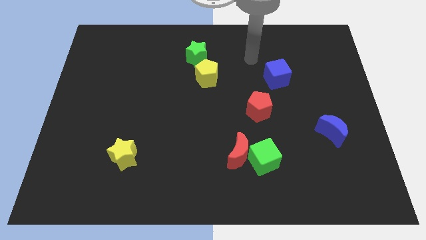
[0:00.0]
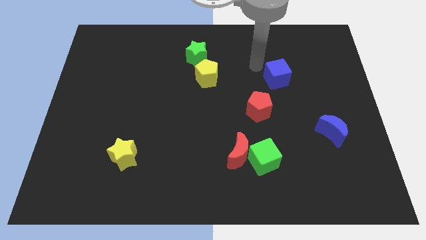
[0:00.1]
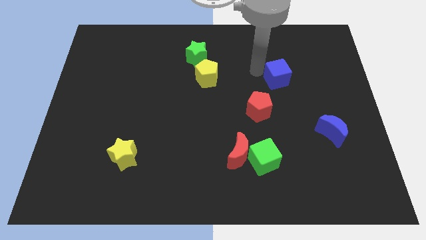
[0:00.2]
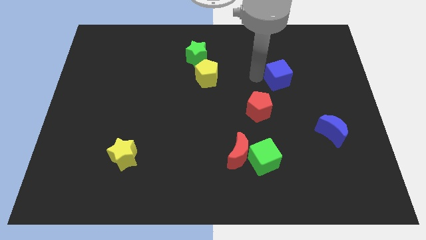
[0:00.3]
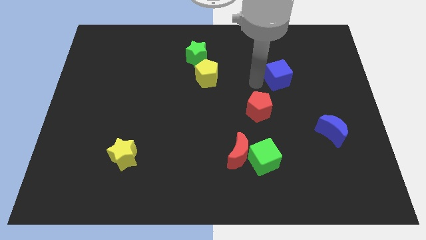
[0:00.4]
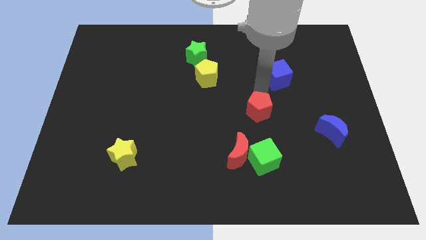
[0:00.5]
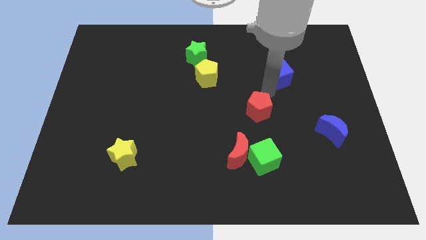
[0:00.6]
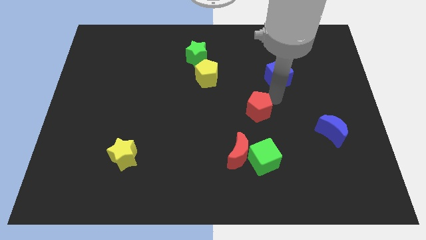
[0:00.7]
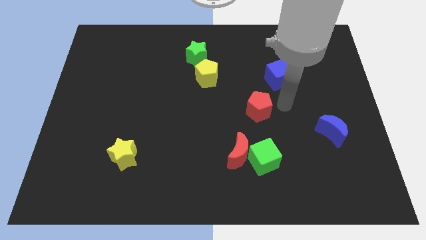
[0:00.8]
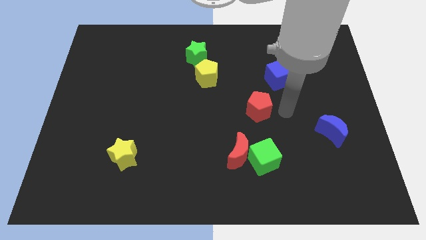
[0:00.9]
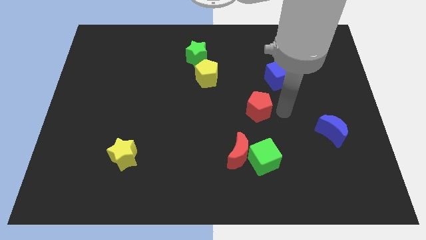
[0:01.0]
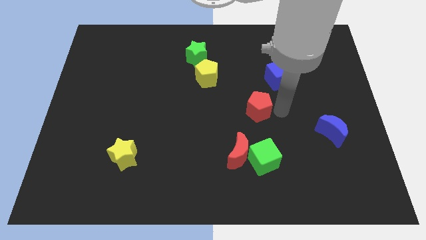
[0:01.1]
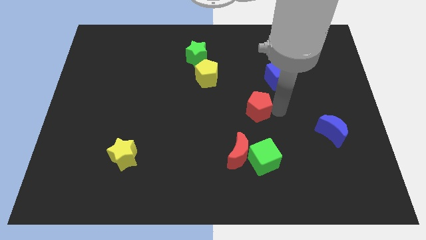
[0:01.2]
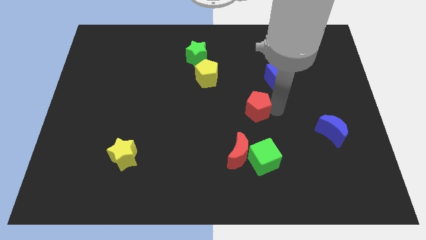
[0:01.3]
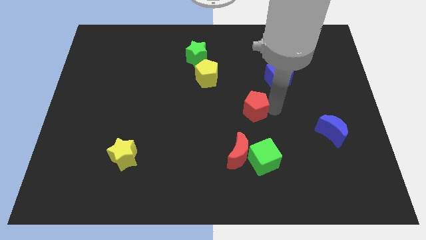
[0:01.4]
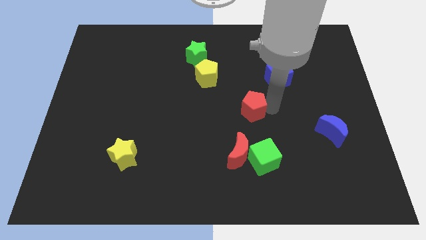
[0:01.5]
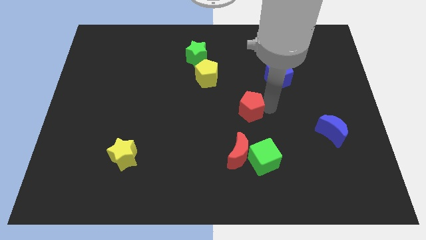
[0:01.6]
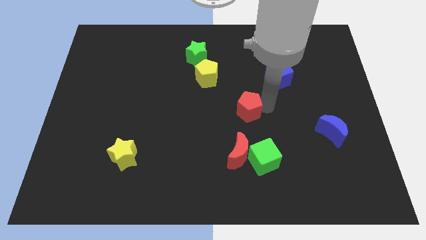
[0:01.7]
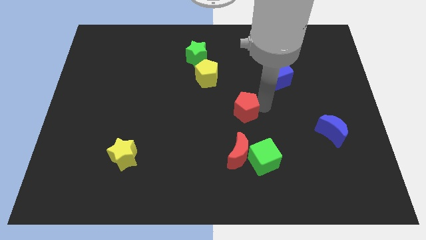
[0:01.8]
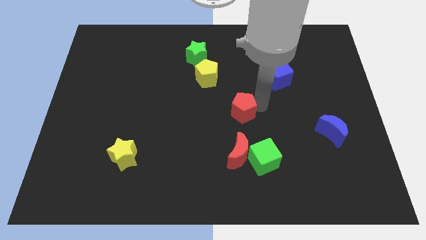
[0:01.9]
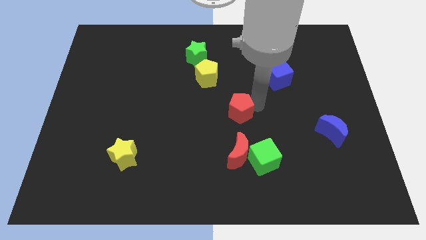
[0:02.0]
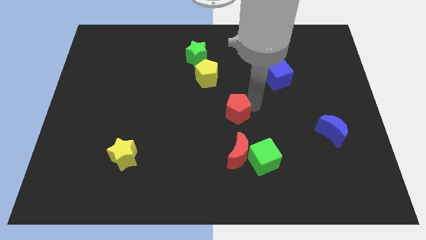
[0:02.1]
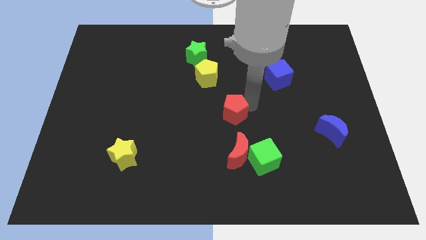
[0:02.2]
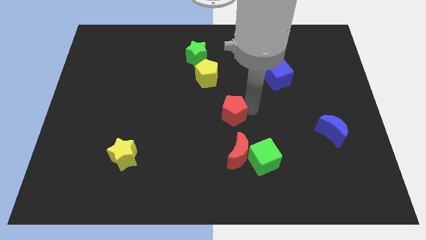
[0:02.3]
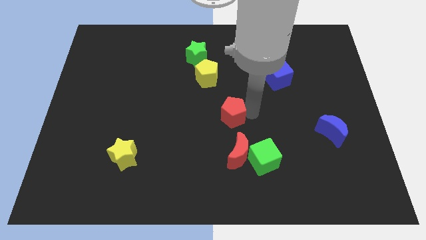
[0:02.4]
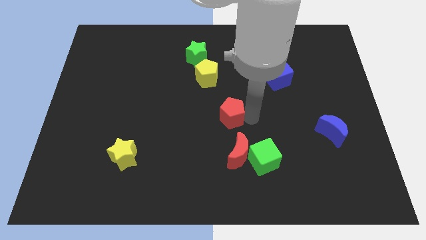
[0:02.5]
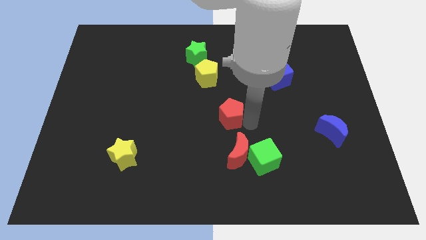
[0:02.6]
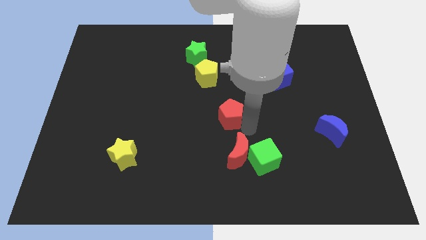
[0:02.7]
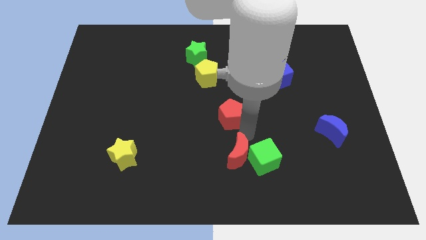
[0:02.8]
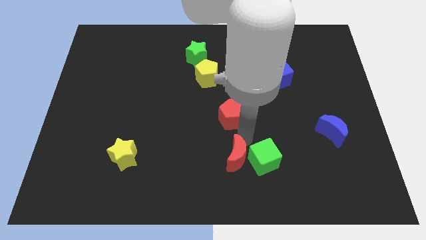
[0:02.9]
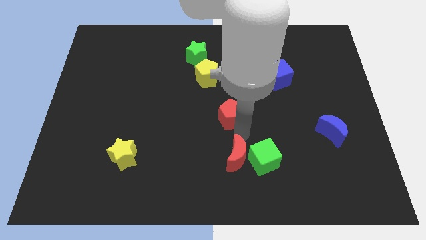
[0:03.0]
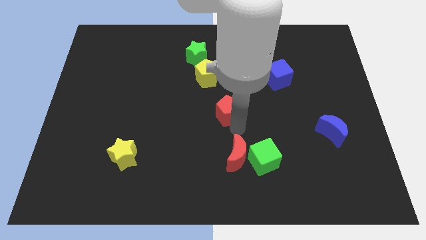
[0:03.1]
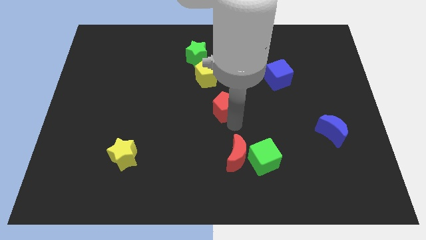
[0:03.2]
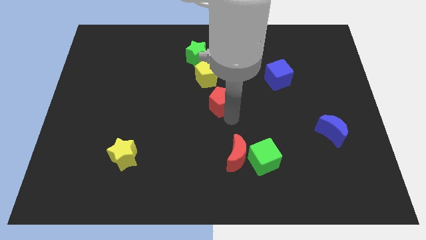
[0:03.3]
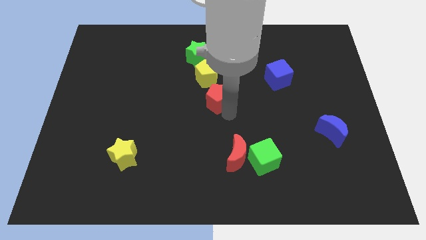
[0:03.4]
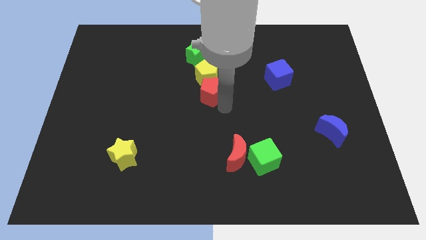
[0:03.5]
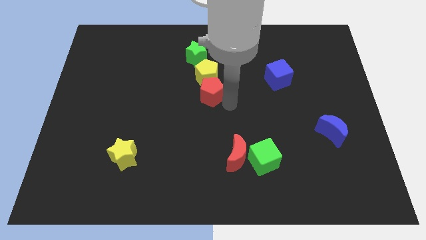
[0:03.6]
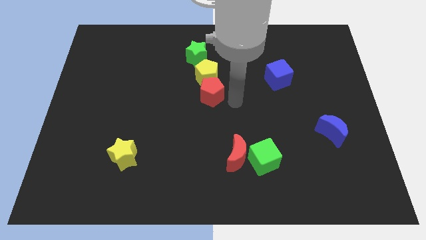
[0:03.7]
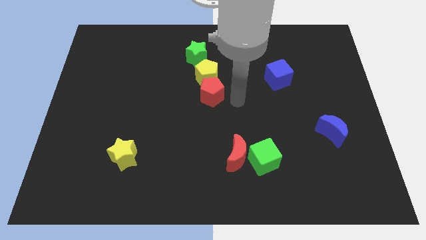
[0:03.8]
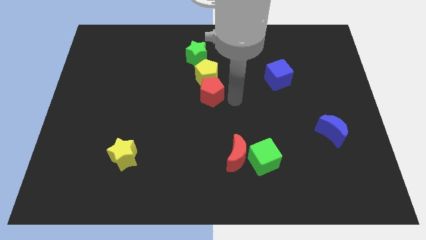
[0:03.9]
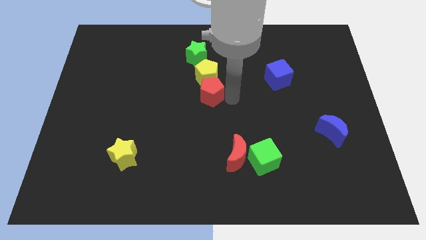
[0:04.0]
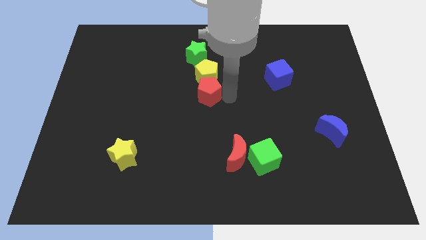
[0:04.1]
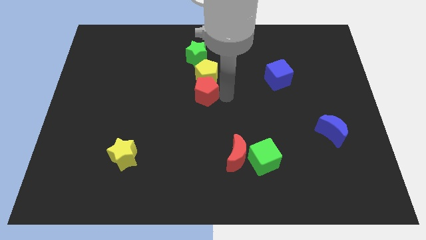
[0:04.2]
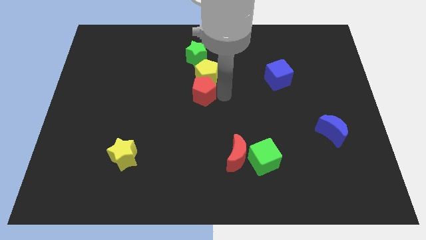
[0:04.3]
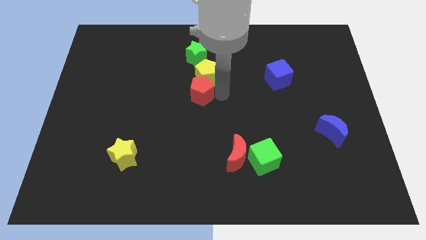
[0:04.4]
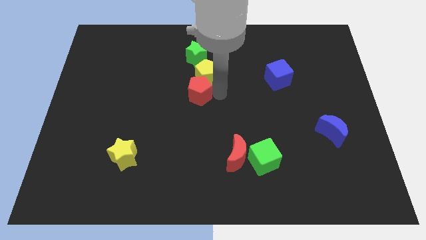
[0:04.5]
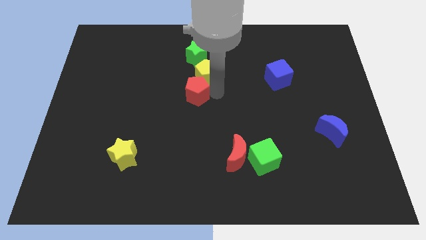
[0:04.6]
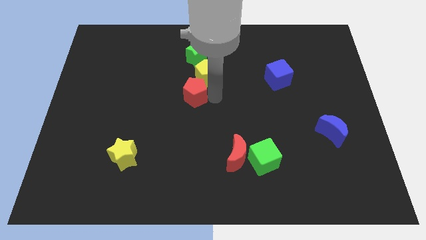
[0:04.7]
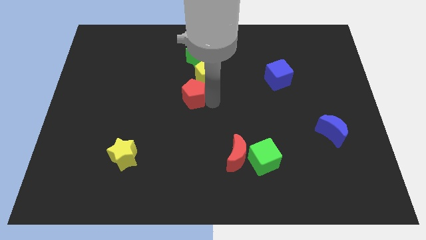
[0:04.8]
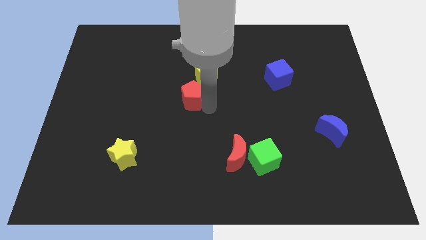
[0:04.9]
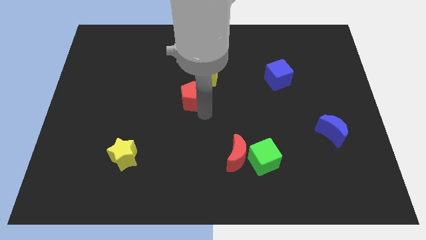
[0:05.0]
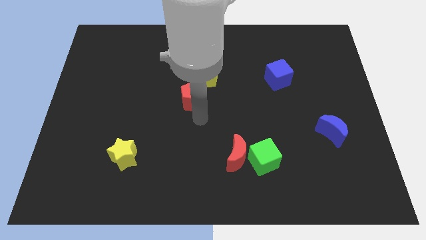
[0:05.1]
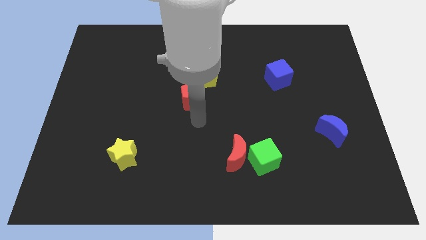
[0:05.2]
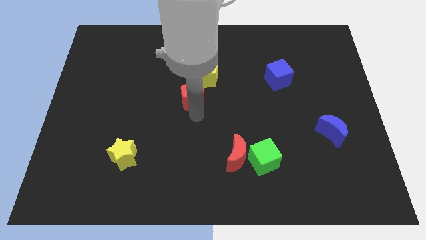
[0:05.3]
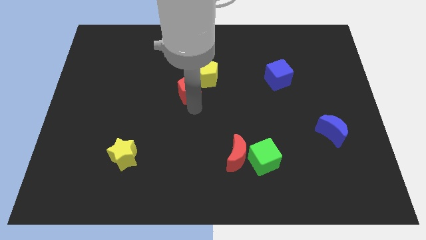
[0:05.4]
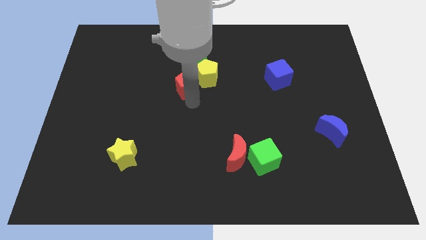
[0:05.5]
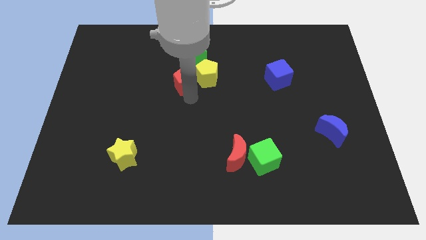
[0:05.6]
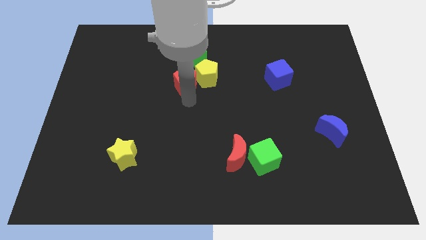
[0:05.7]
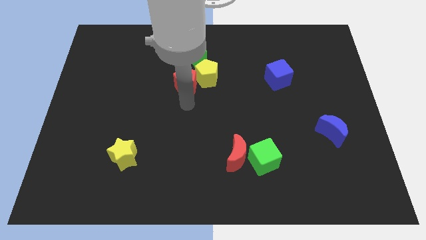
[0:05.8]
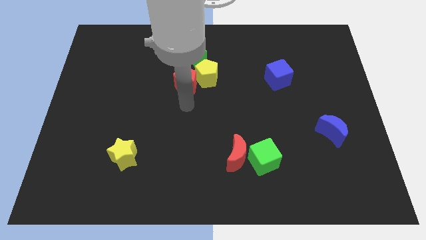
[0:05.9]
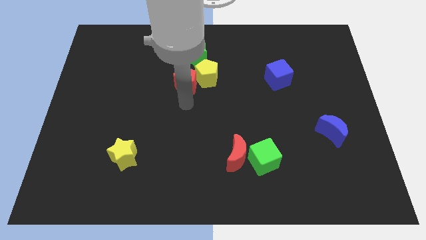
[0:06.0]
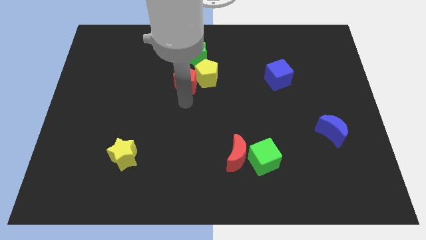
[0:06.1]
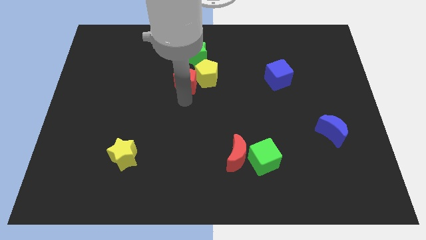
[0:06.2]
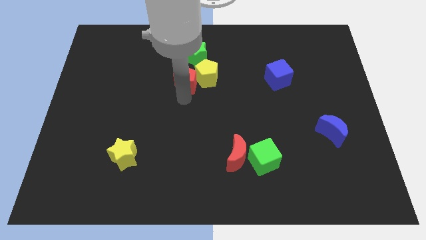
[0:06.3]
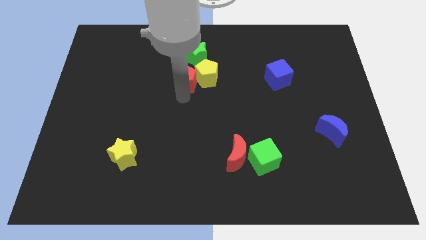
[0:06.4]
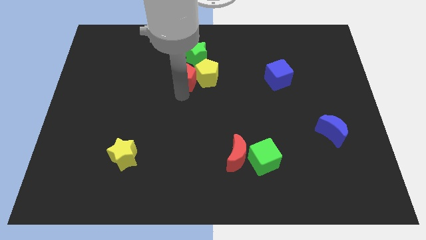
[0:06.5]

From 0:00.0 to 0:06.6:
put the red pentagon to the top left of the yellow pentagon
